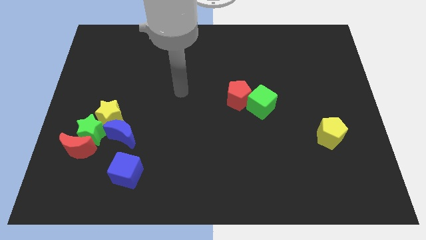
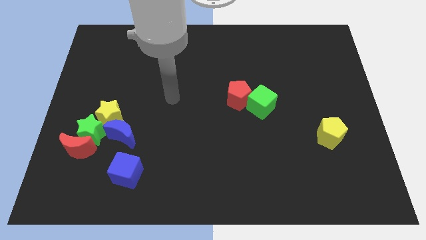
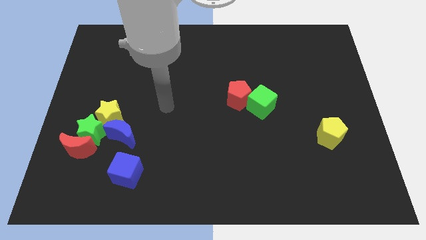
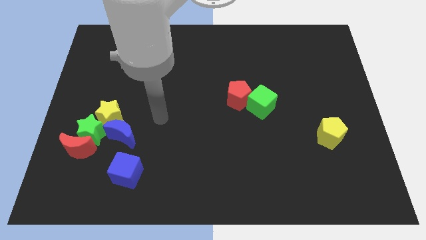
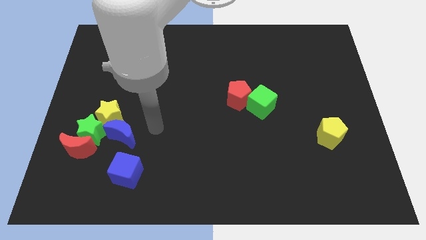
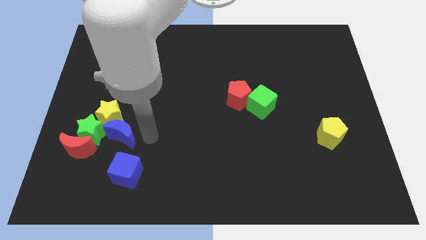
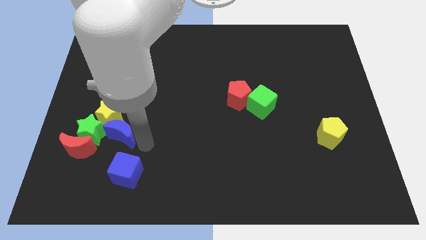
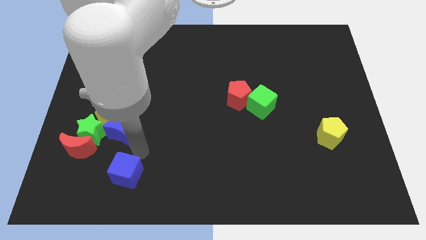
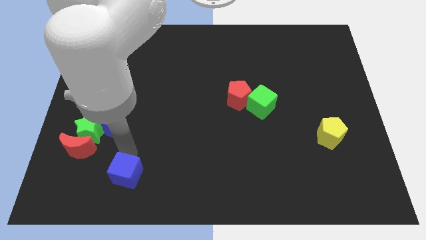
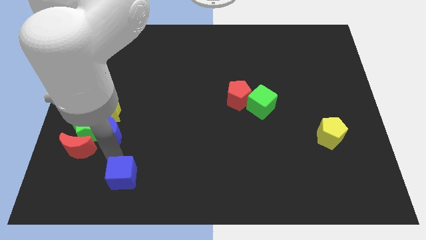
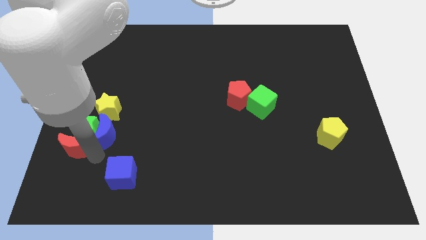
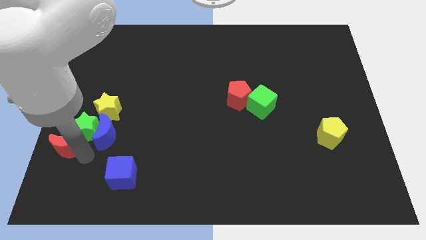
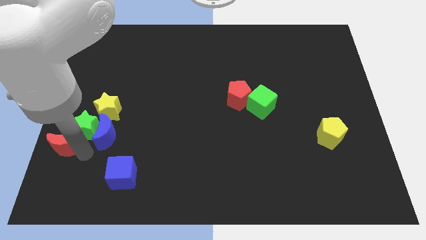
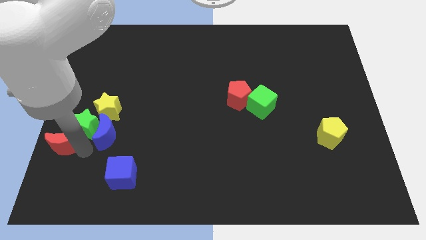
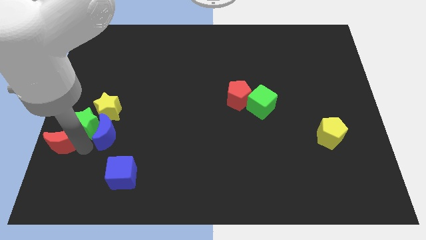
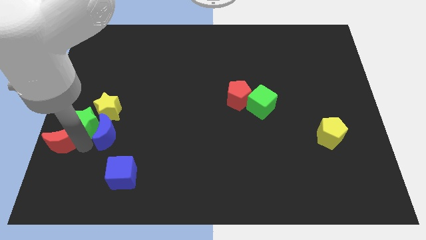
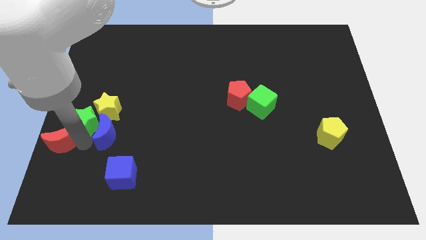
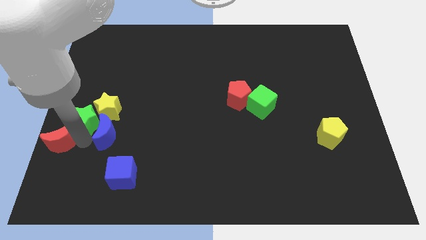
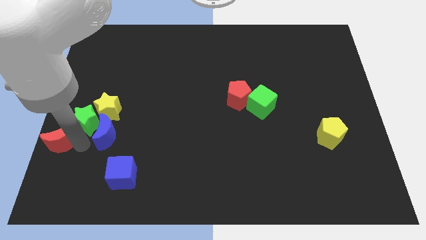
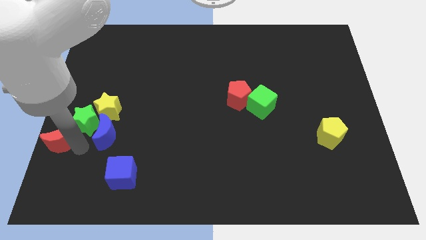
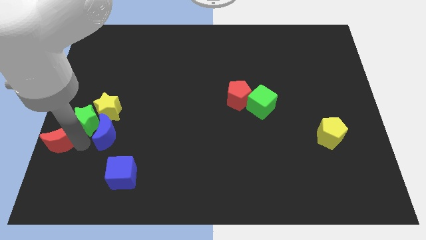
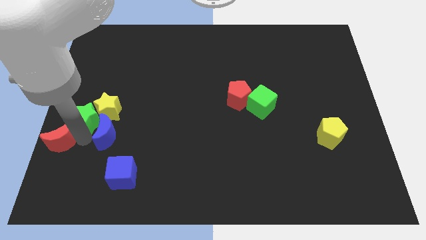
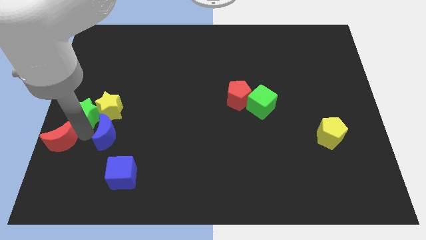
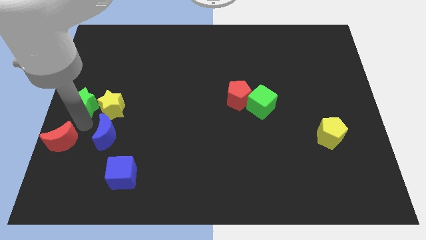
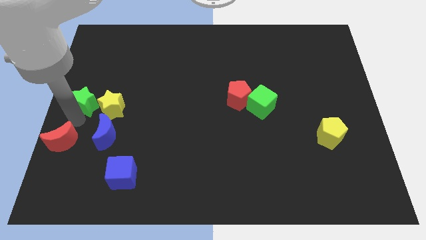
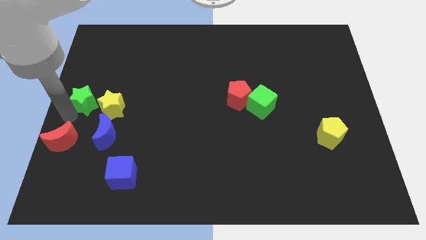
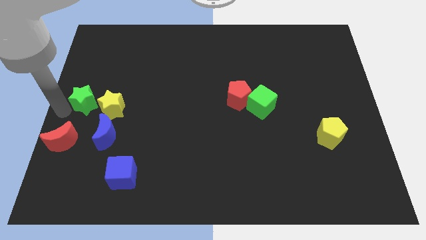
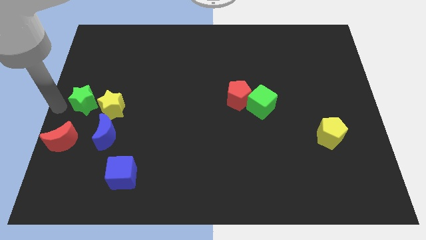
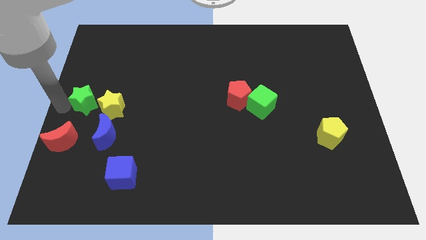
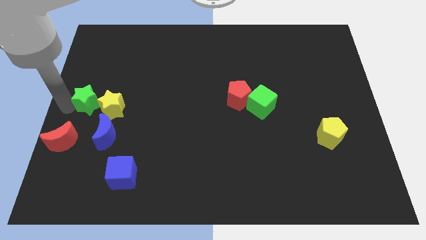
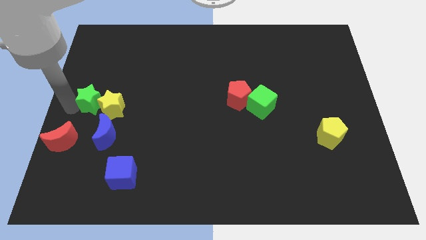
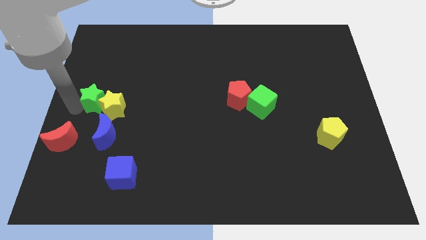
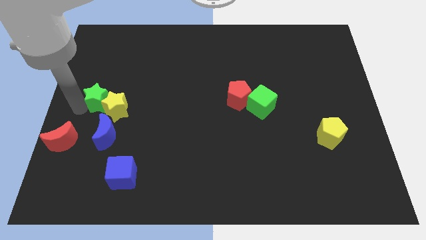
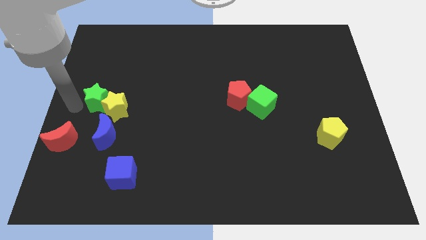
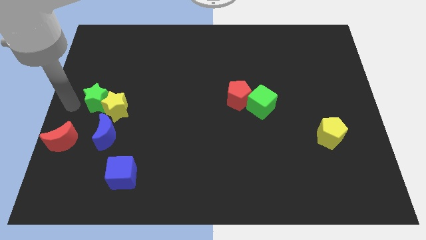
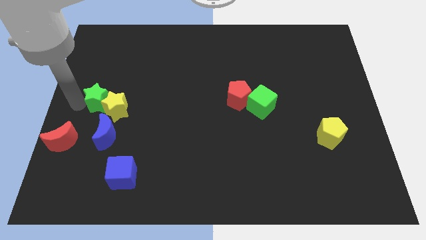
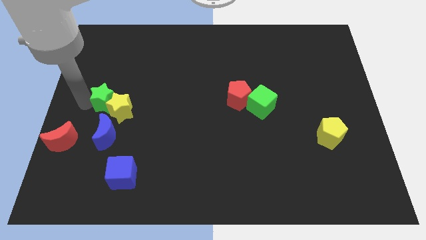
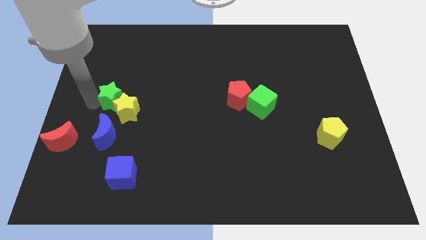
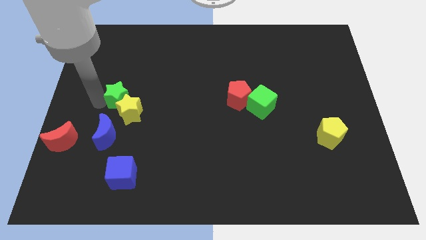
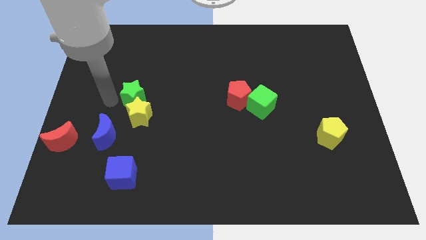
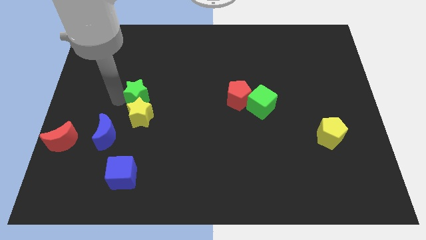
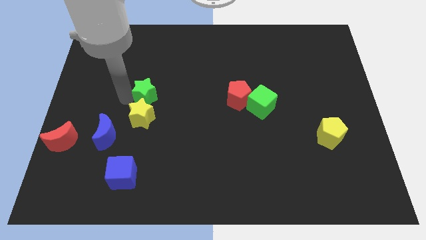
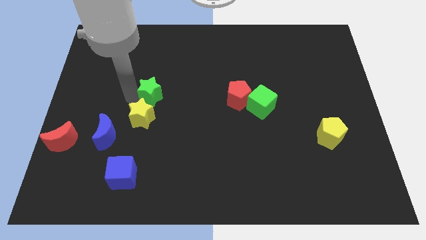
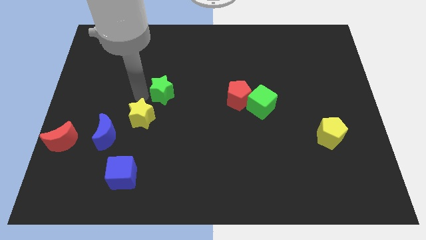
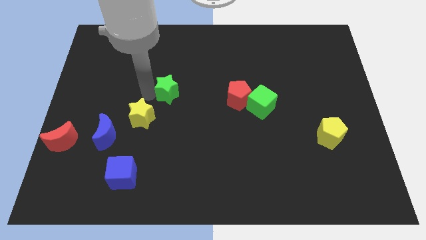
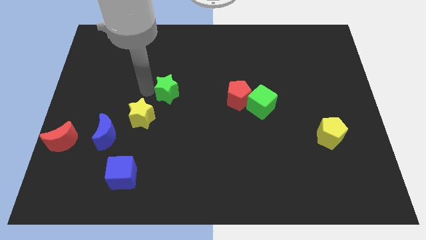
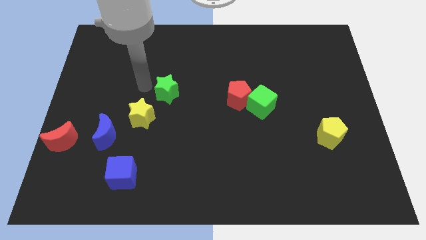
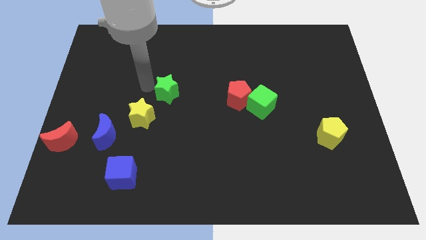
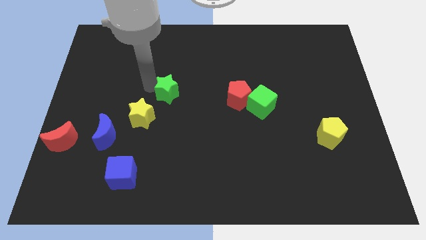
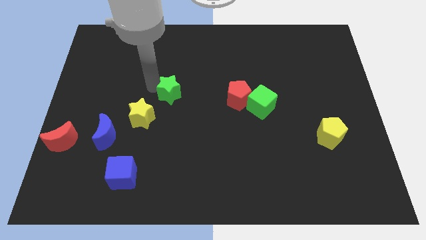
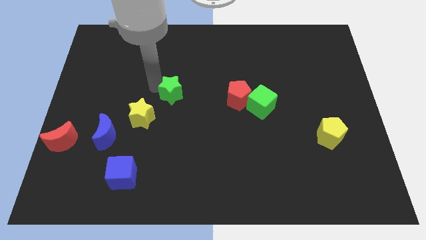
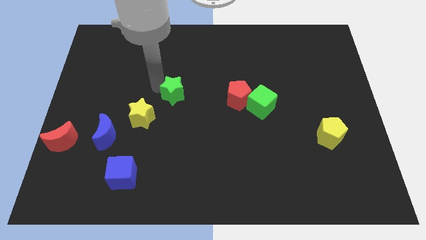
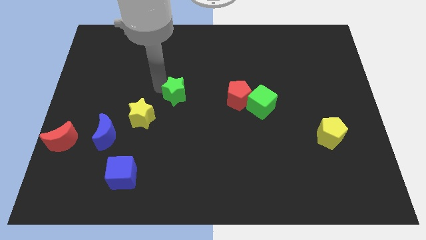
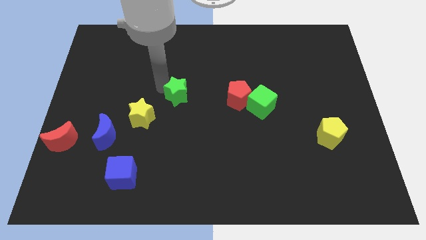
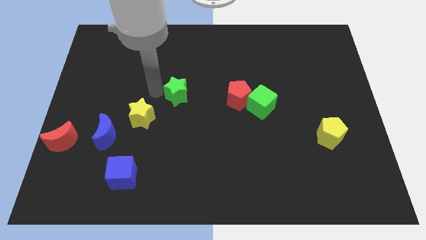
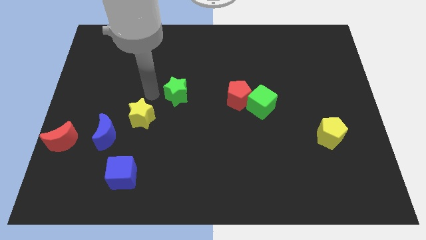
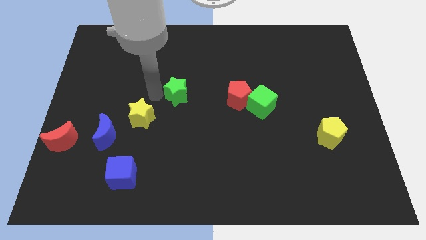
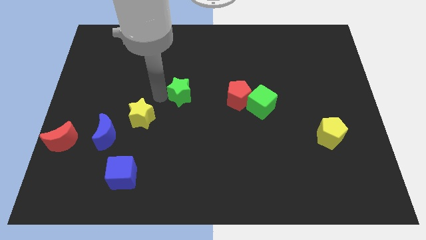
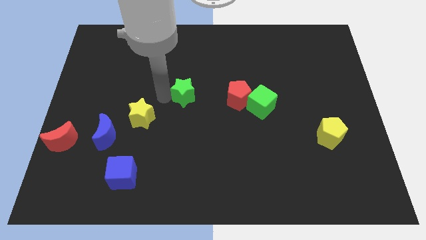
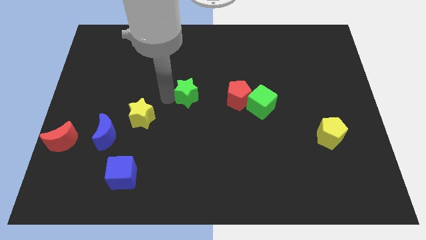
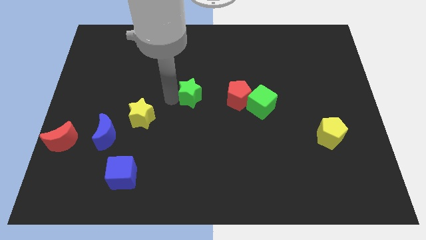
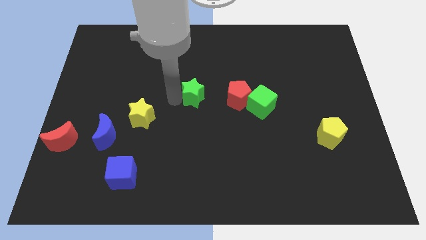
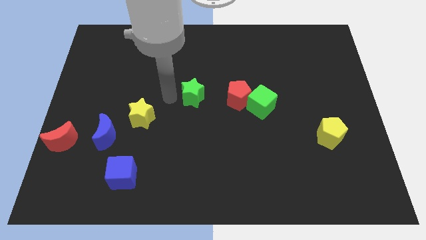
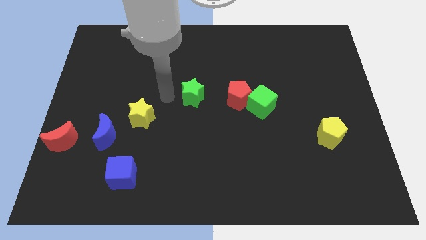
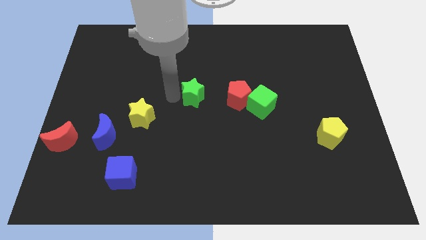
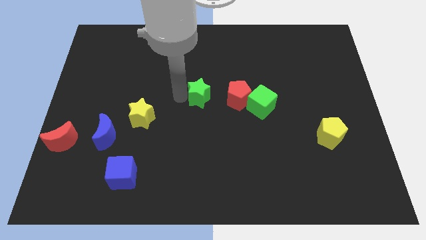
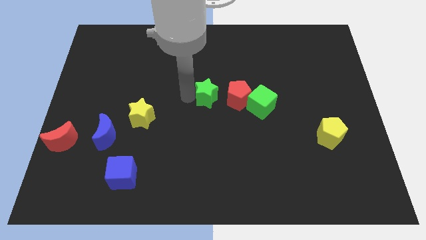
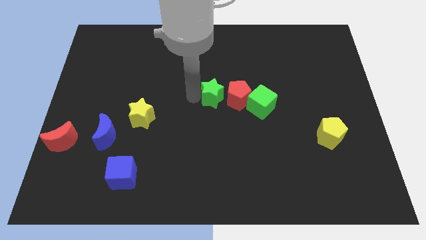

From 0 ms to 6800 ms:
move the green star to the red pentagon
